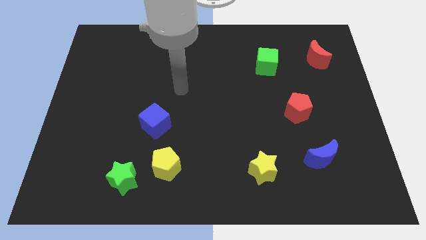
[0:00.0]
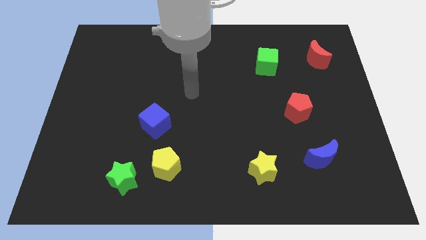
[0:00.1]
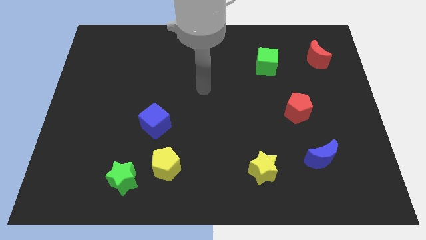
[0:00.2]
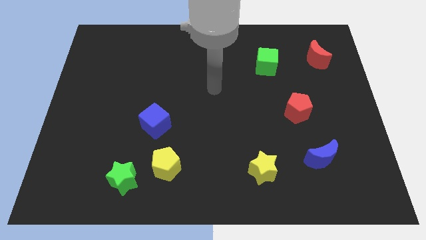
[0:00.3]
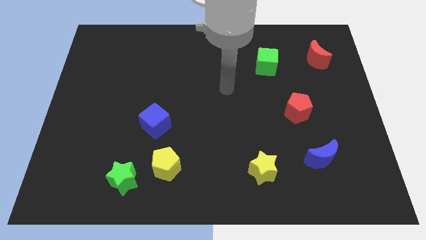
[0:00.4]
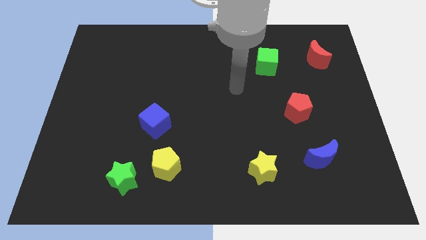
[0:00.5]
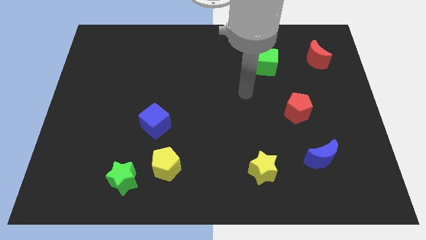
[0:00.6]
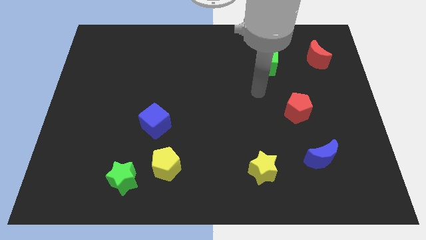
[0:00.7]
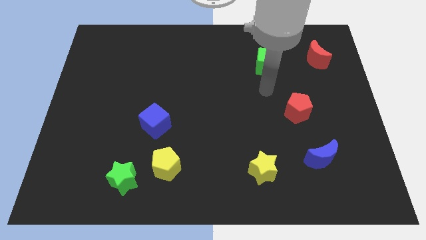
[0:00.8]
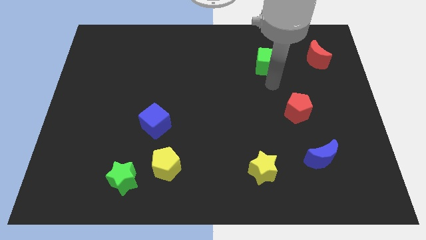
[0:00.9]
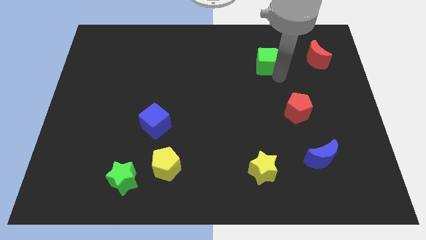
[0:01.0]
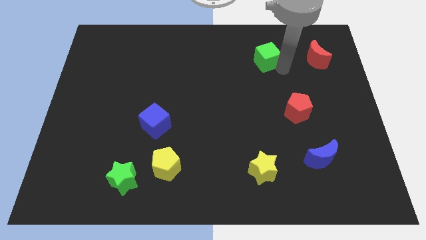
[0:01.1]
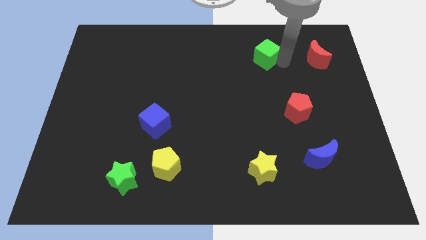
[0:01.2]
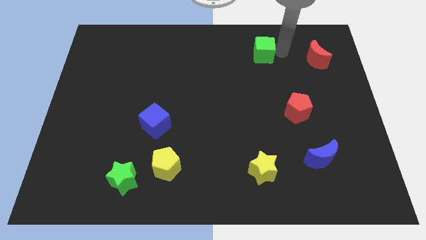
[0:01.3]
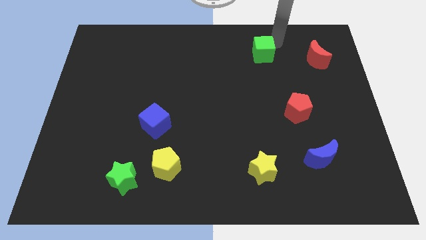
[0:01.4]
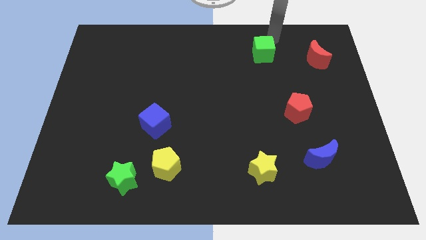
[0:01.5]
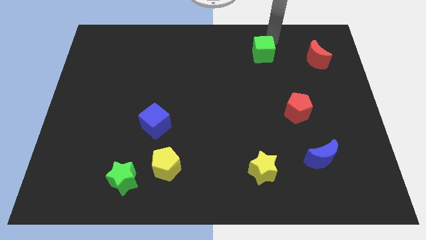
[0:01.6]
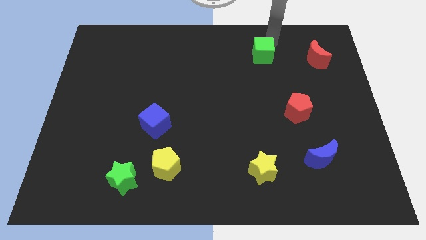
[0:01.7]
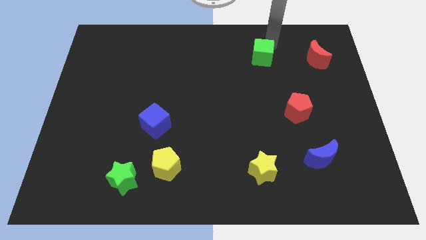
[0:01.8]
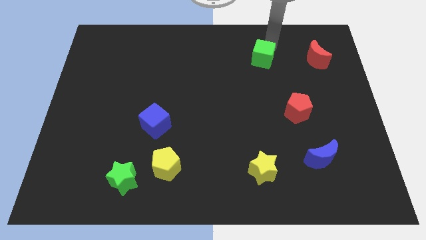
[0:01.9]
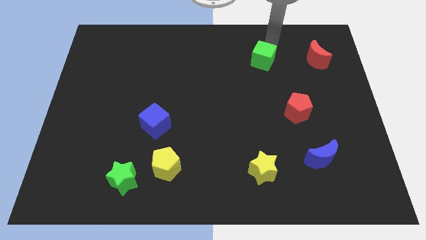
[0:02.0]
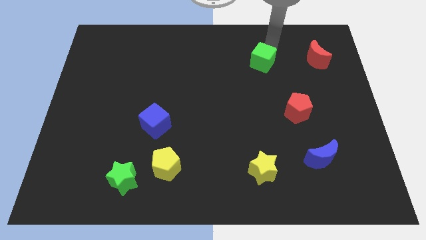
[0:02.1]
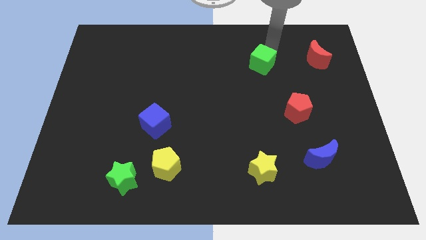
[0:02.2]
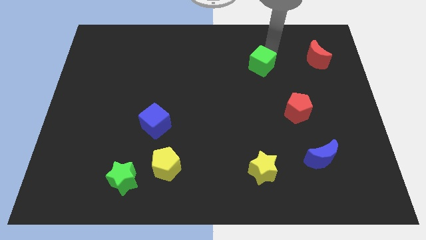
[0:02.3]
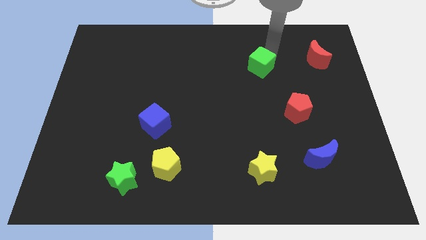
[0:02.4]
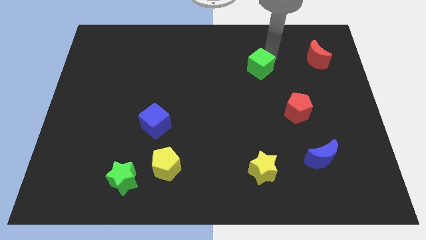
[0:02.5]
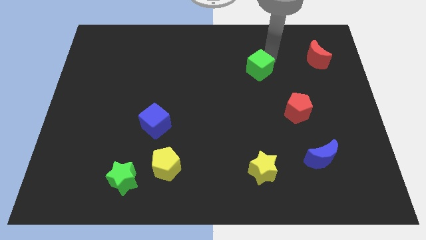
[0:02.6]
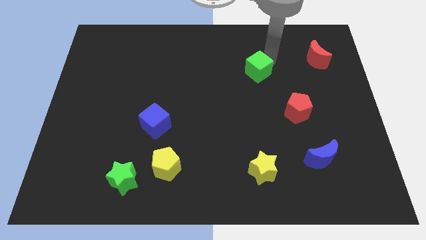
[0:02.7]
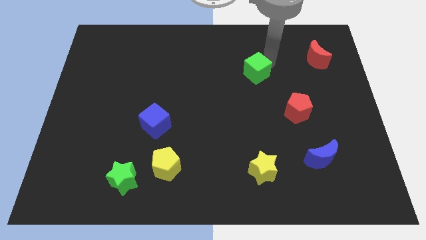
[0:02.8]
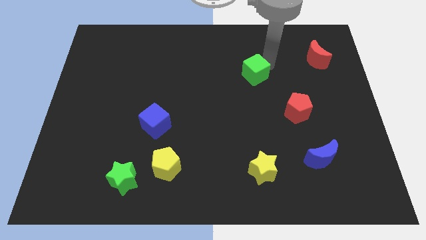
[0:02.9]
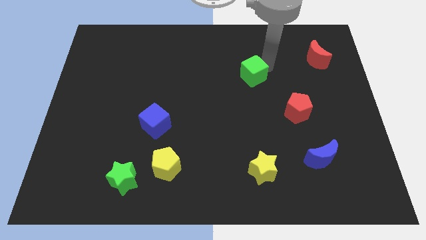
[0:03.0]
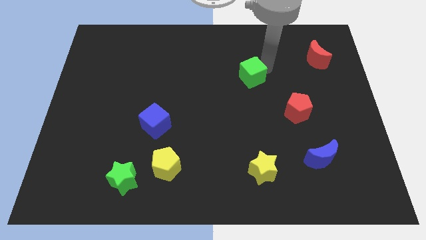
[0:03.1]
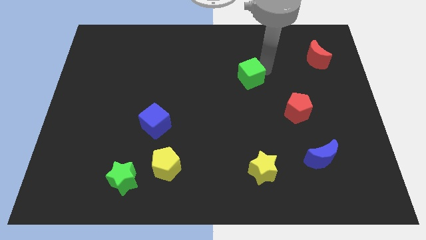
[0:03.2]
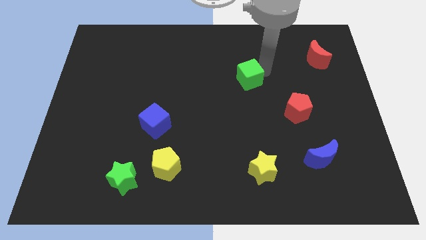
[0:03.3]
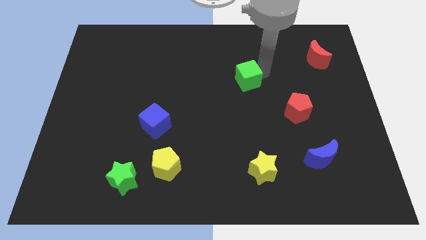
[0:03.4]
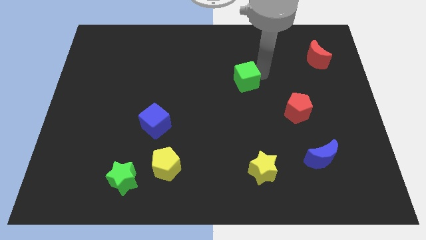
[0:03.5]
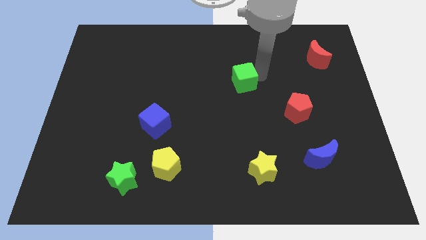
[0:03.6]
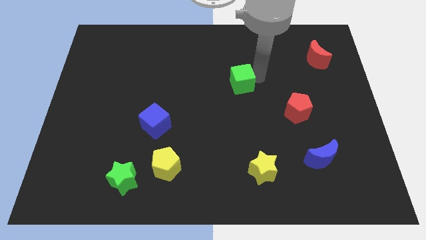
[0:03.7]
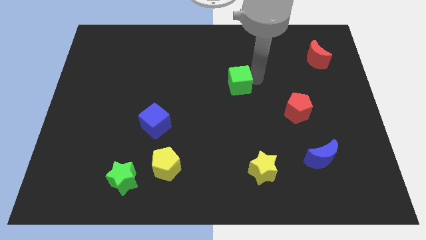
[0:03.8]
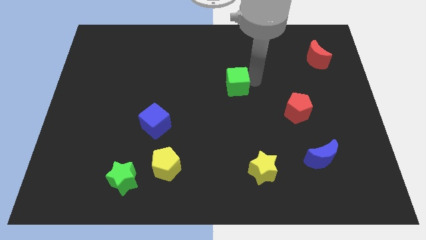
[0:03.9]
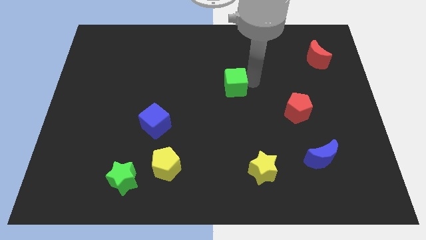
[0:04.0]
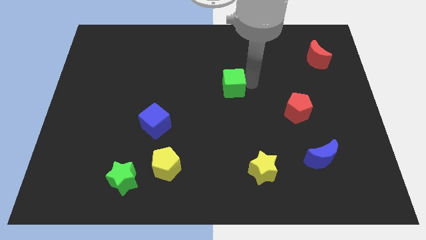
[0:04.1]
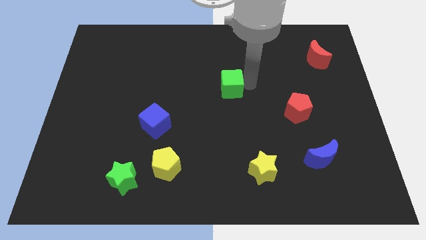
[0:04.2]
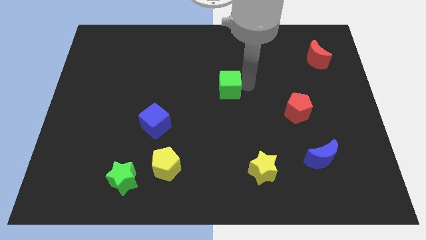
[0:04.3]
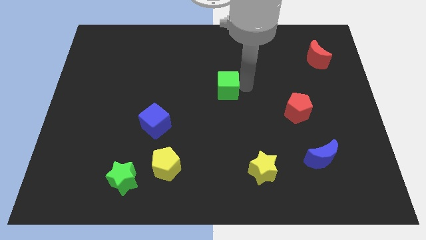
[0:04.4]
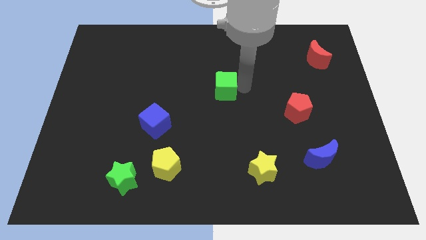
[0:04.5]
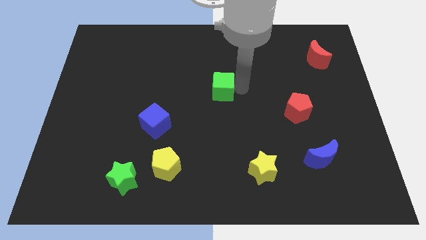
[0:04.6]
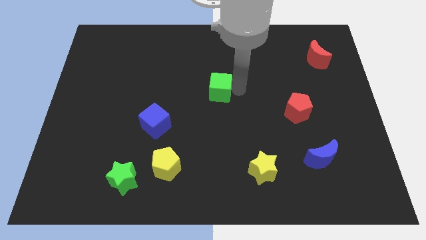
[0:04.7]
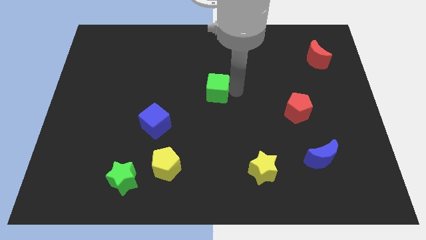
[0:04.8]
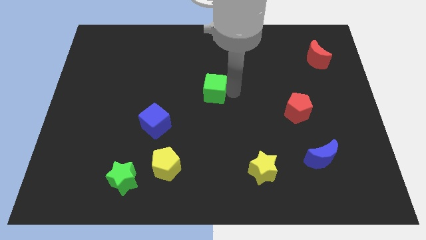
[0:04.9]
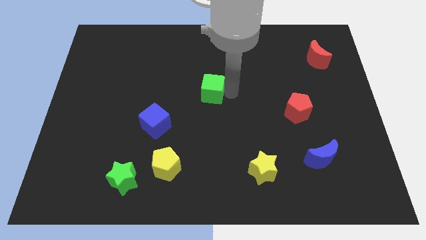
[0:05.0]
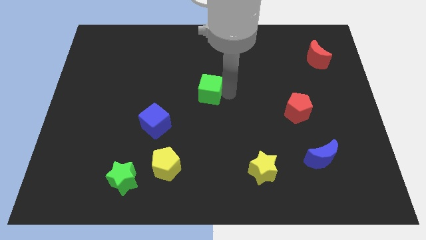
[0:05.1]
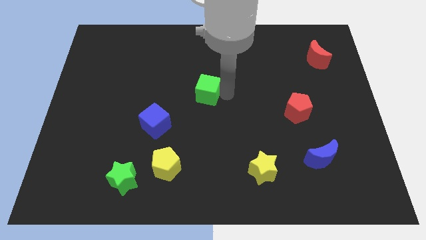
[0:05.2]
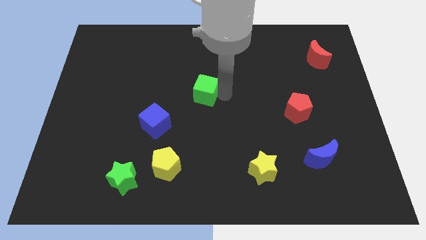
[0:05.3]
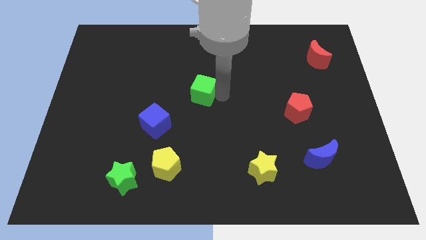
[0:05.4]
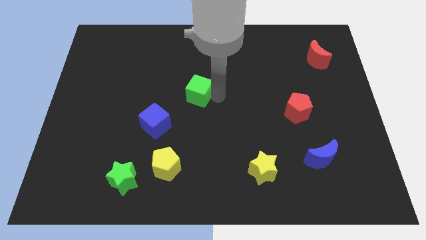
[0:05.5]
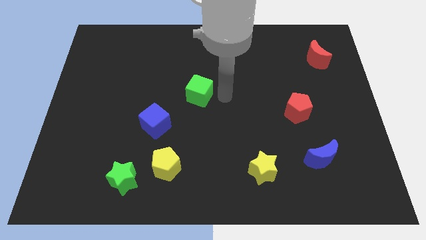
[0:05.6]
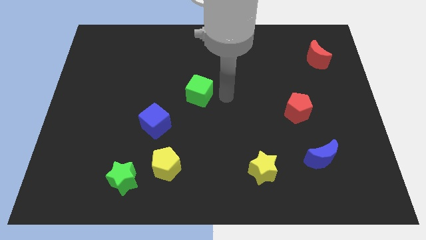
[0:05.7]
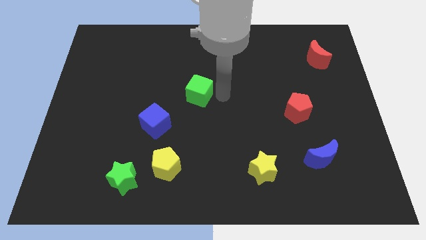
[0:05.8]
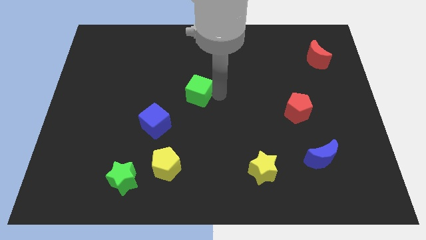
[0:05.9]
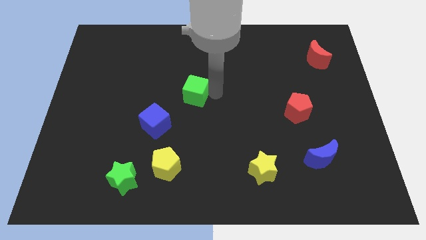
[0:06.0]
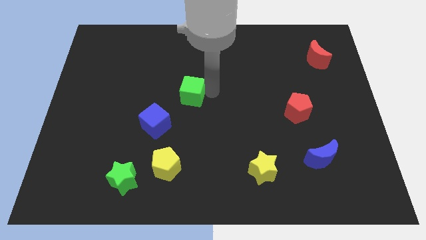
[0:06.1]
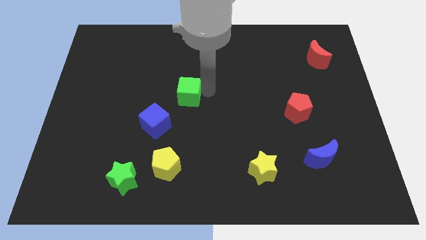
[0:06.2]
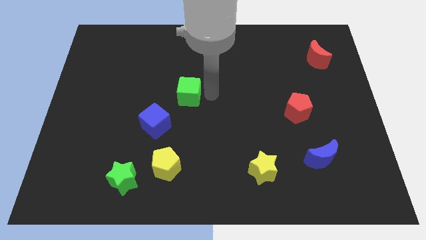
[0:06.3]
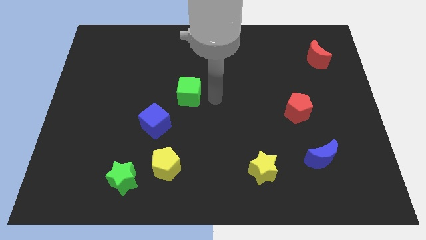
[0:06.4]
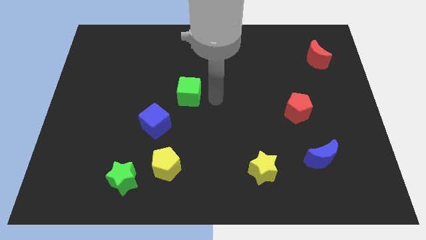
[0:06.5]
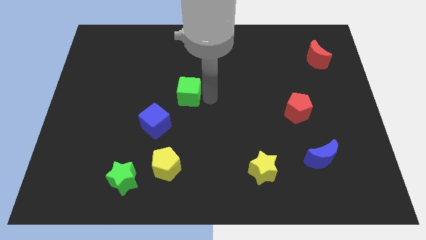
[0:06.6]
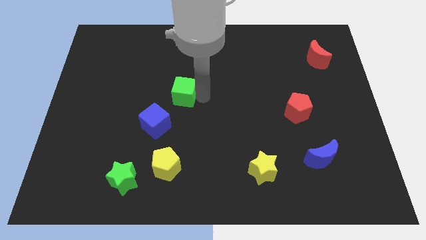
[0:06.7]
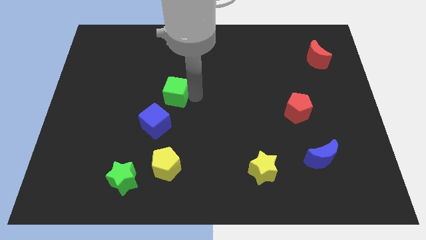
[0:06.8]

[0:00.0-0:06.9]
slide the green cube to the top of the blue cube

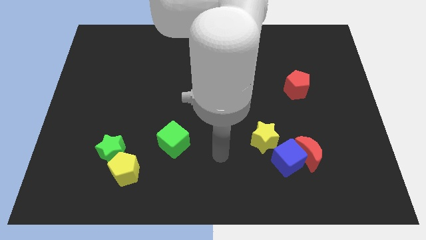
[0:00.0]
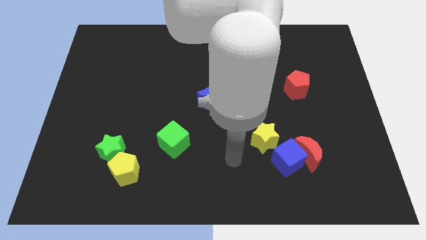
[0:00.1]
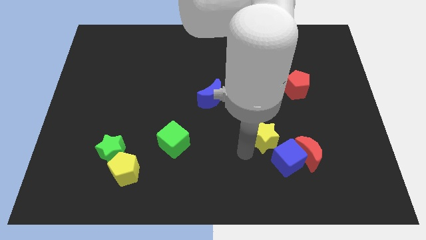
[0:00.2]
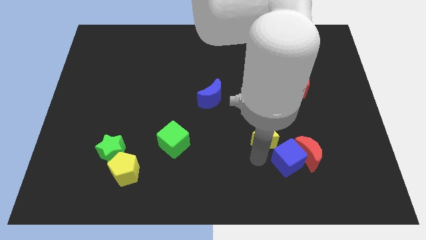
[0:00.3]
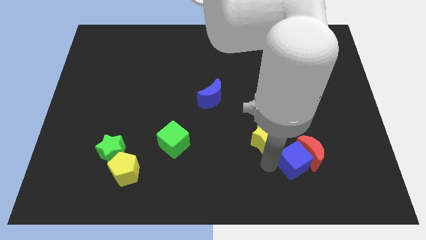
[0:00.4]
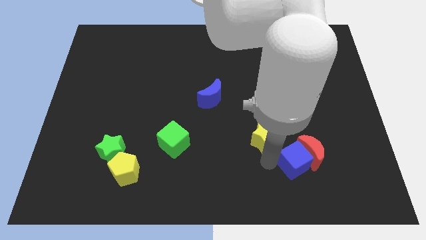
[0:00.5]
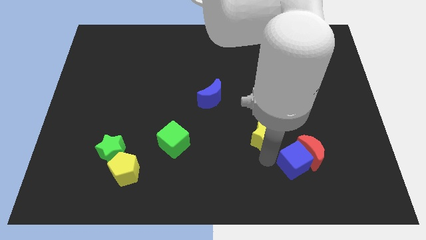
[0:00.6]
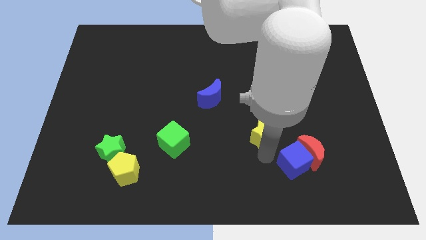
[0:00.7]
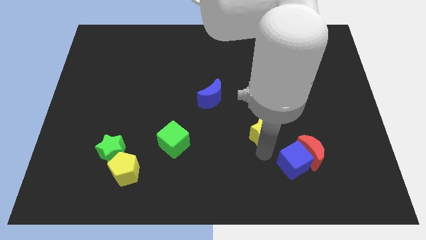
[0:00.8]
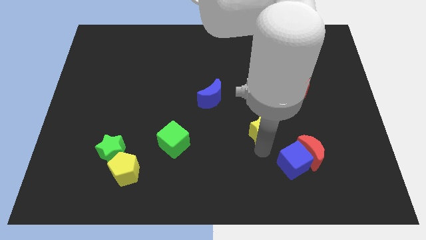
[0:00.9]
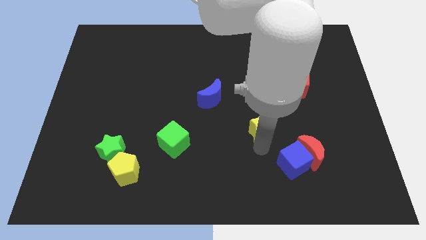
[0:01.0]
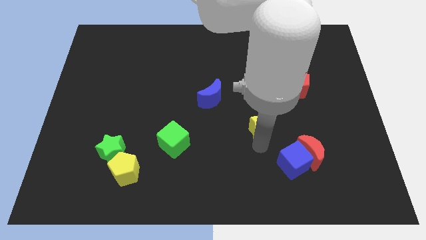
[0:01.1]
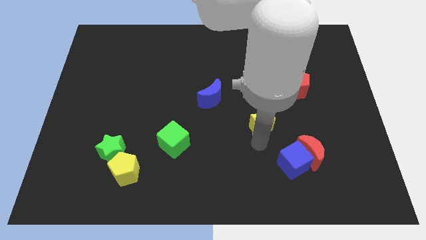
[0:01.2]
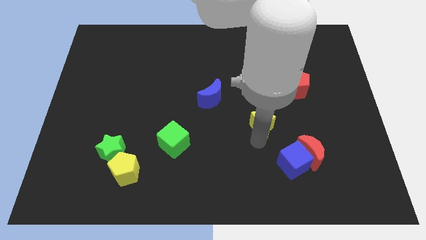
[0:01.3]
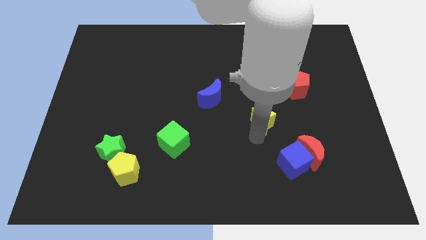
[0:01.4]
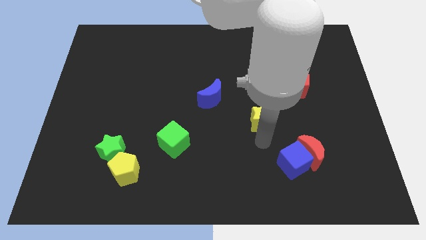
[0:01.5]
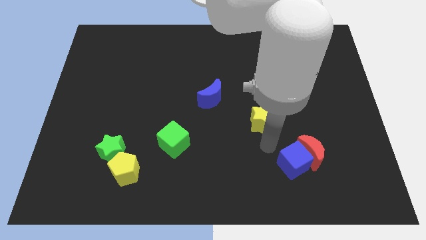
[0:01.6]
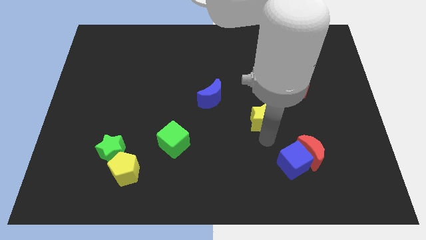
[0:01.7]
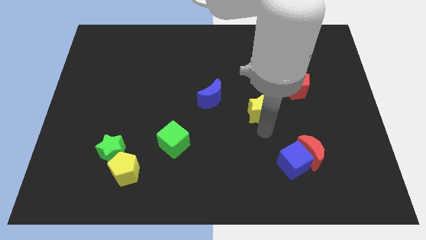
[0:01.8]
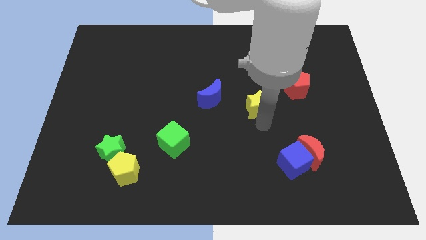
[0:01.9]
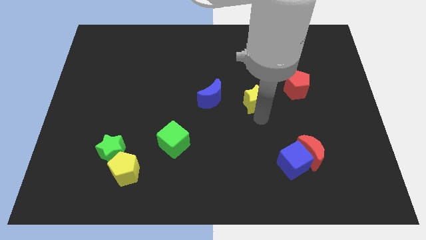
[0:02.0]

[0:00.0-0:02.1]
put the yellow star just left of the red pentagon
